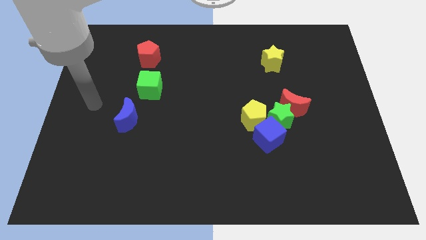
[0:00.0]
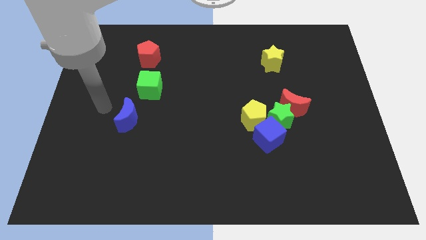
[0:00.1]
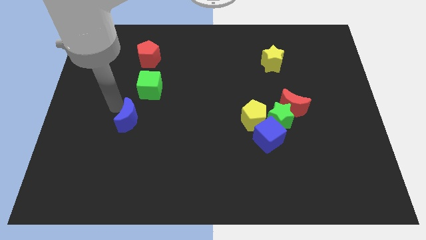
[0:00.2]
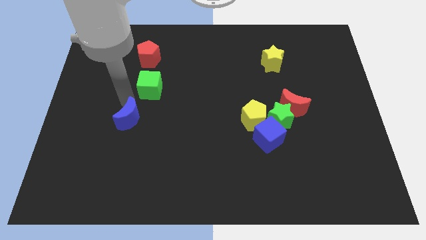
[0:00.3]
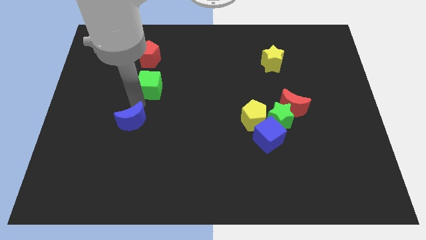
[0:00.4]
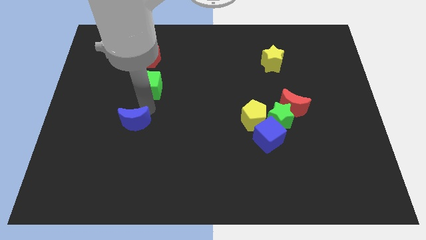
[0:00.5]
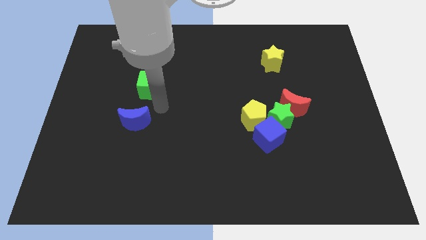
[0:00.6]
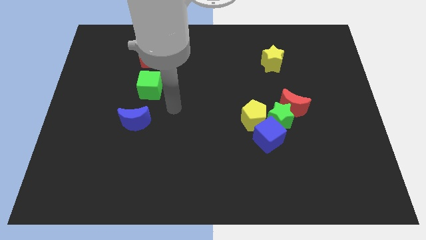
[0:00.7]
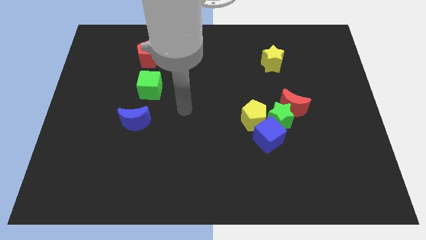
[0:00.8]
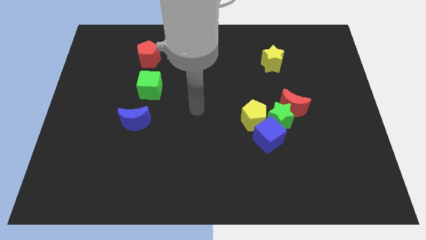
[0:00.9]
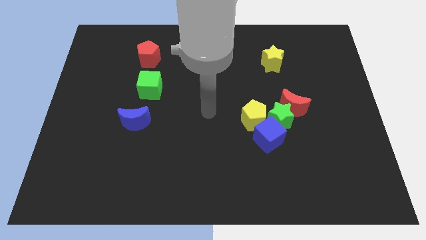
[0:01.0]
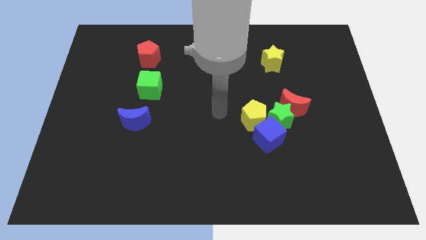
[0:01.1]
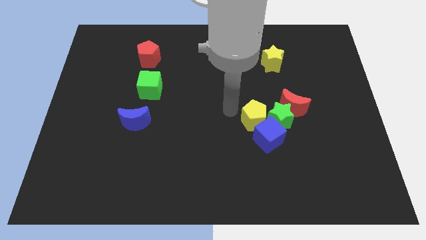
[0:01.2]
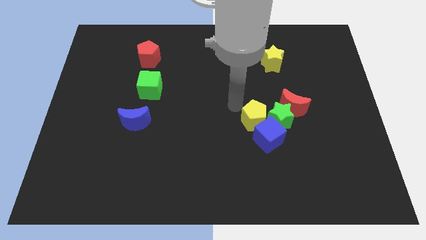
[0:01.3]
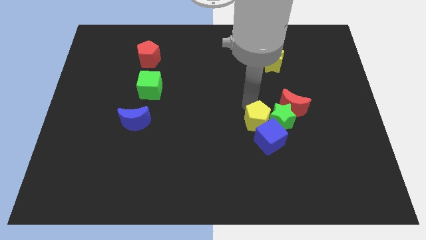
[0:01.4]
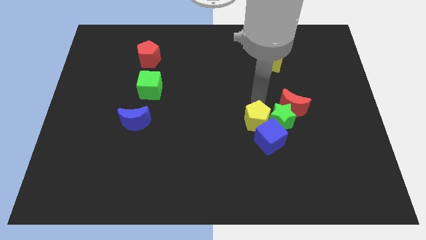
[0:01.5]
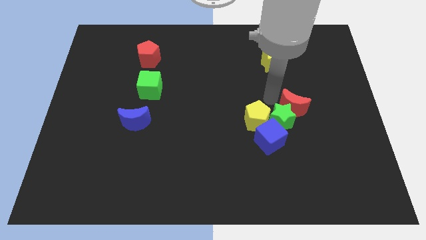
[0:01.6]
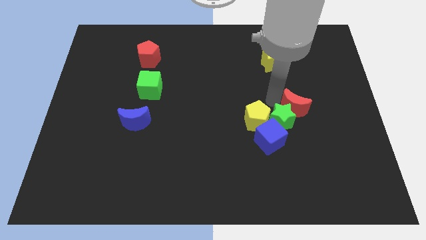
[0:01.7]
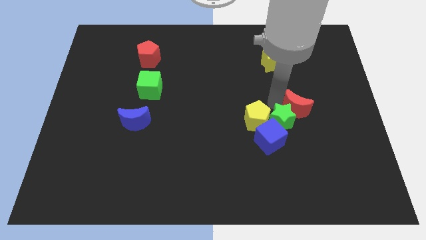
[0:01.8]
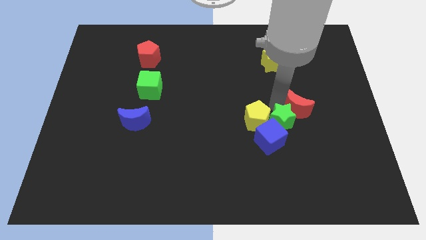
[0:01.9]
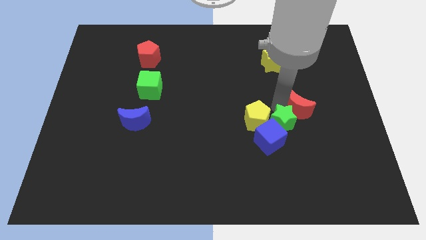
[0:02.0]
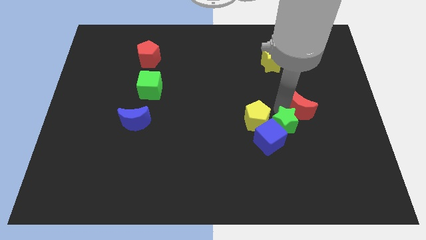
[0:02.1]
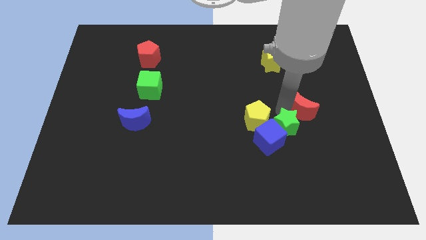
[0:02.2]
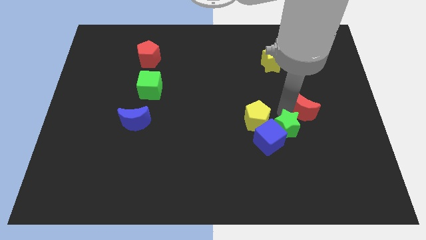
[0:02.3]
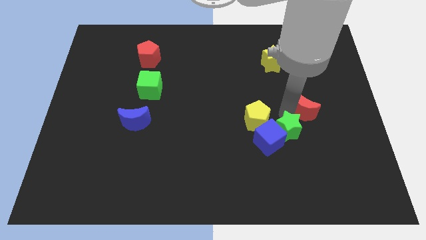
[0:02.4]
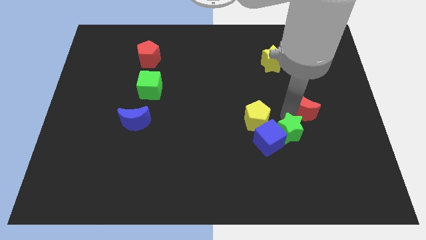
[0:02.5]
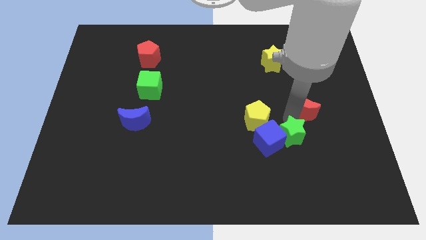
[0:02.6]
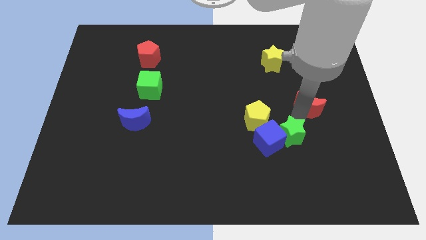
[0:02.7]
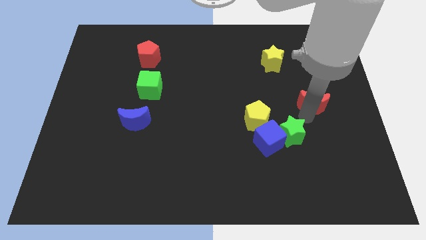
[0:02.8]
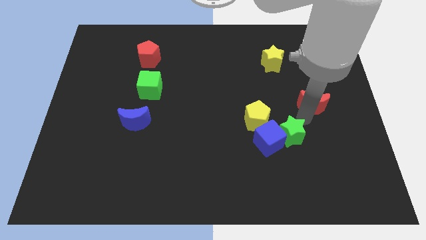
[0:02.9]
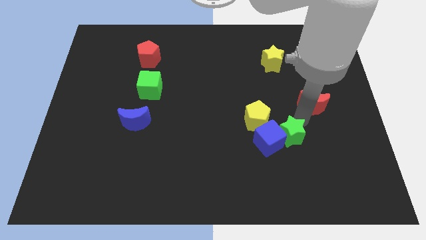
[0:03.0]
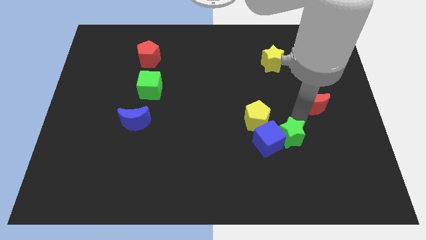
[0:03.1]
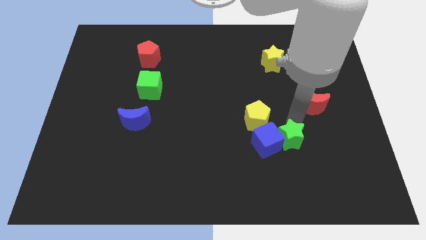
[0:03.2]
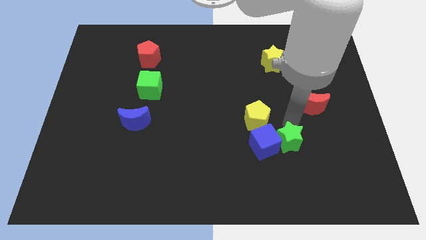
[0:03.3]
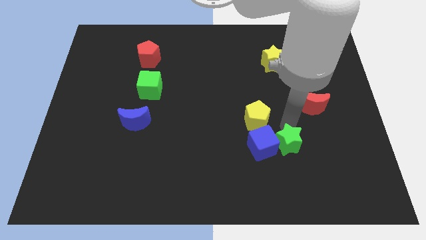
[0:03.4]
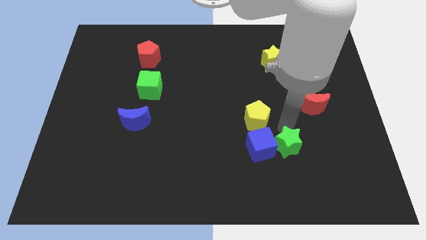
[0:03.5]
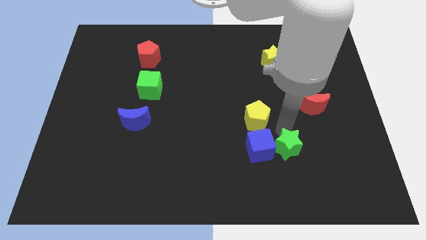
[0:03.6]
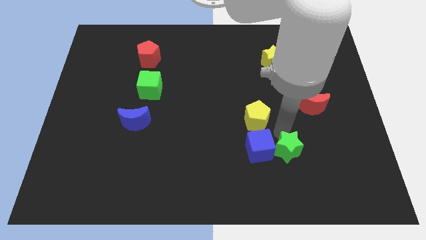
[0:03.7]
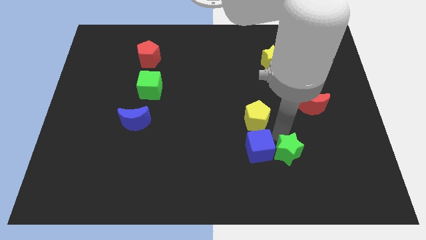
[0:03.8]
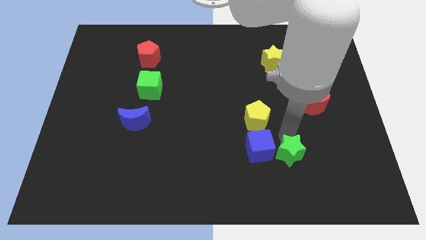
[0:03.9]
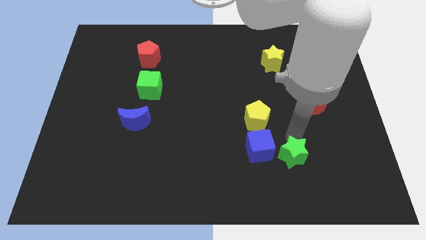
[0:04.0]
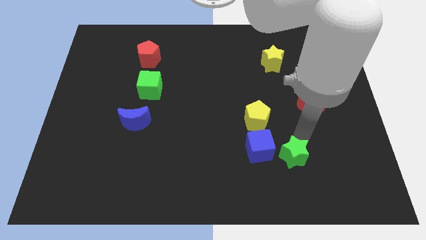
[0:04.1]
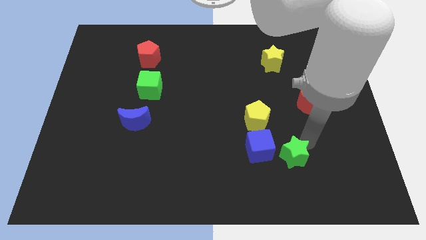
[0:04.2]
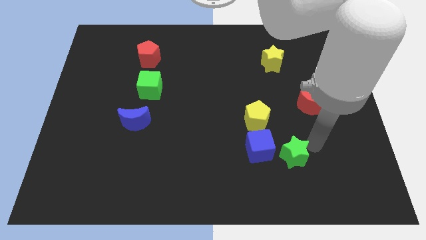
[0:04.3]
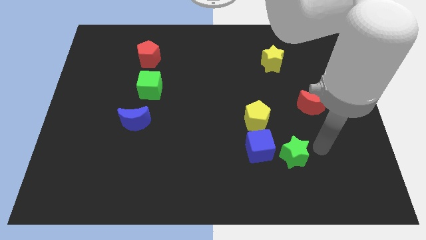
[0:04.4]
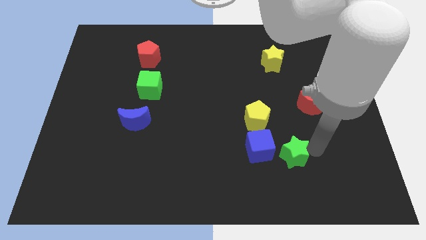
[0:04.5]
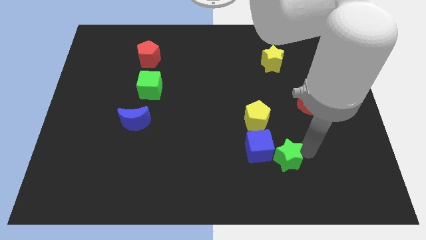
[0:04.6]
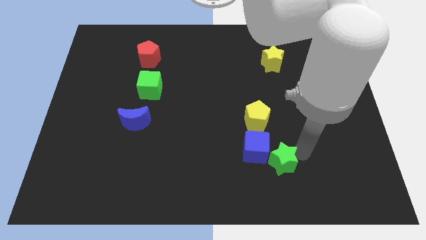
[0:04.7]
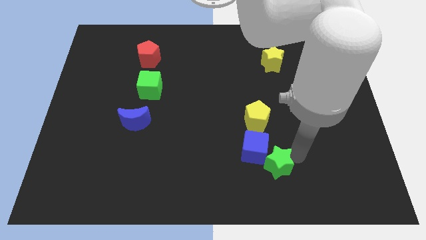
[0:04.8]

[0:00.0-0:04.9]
slide the green star downwards and left diagonally somewhat

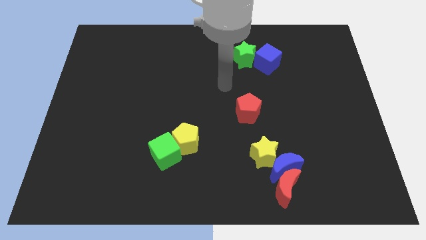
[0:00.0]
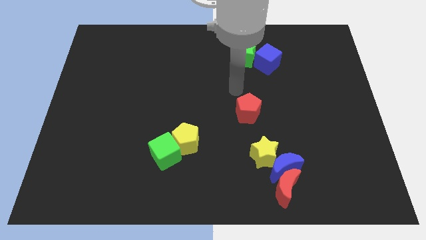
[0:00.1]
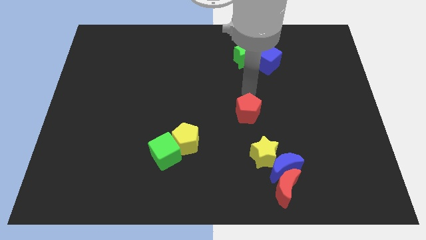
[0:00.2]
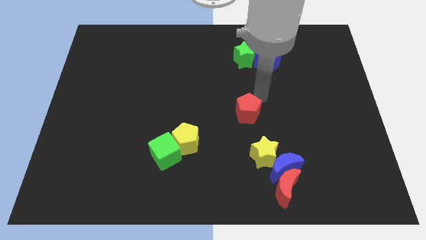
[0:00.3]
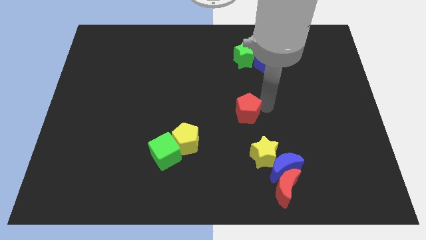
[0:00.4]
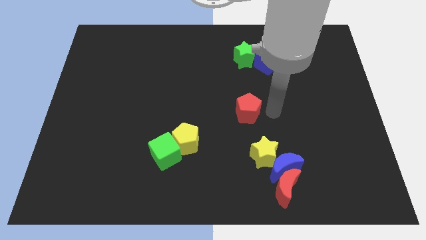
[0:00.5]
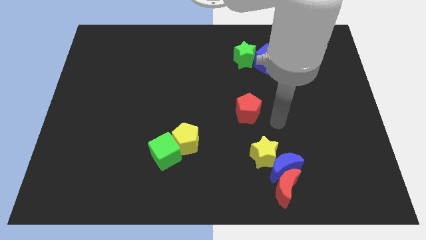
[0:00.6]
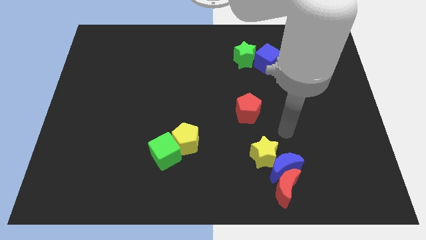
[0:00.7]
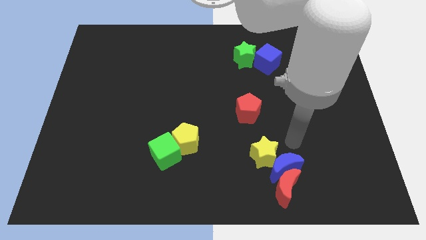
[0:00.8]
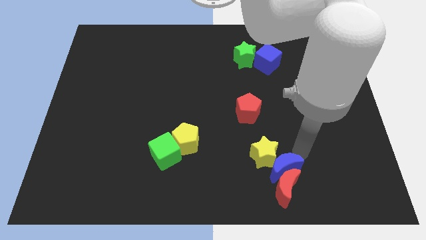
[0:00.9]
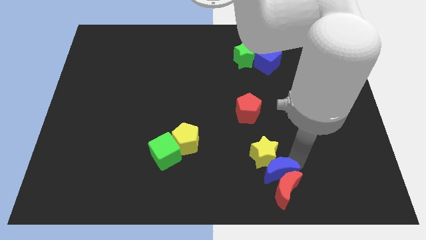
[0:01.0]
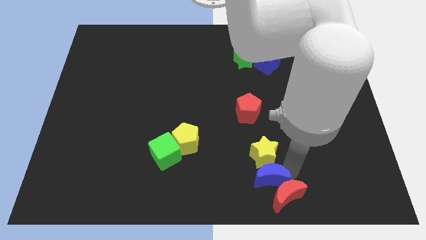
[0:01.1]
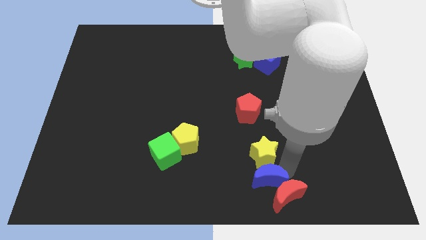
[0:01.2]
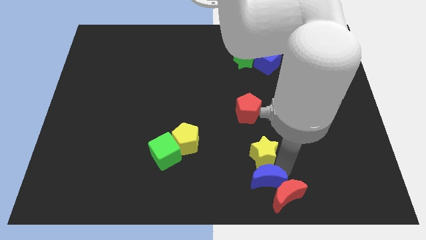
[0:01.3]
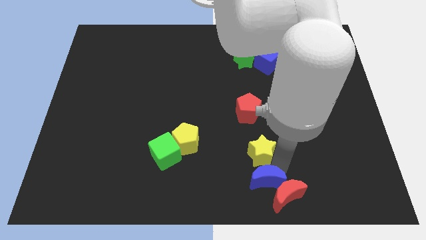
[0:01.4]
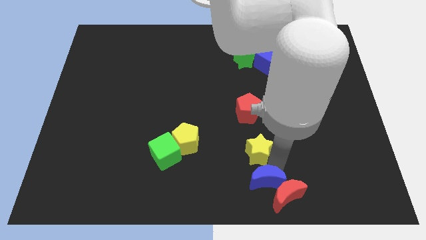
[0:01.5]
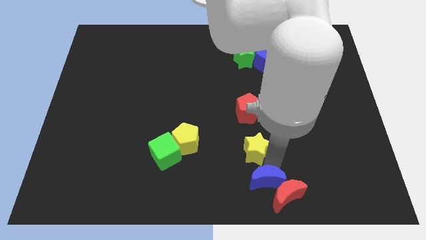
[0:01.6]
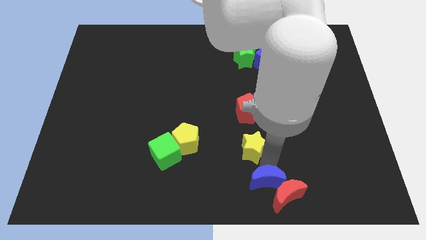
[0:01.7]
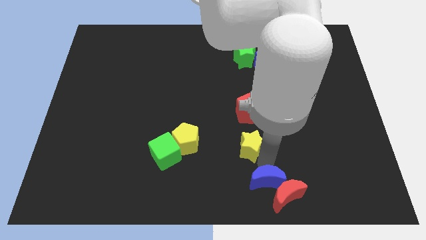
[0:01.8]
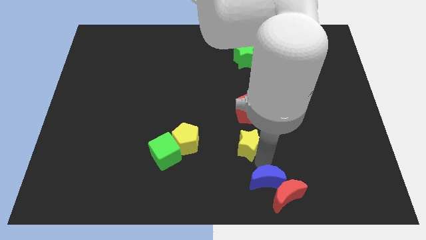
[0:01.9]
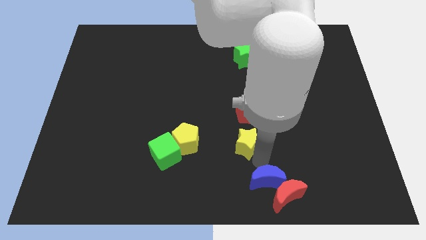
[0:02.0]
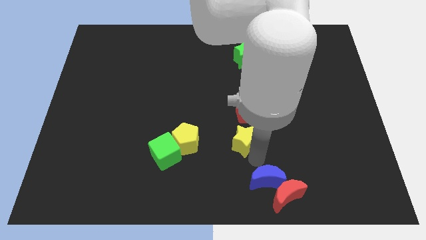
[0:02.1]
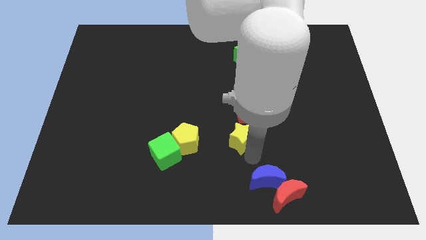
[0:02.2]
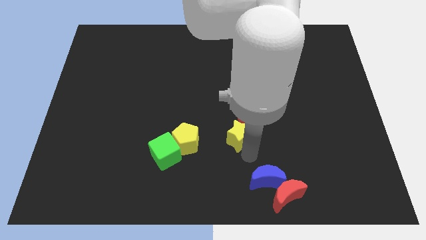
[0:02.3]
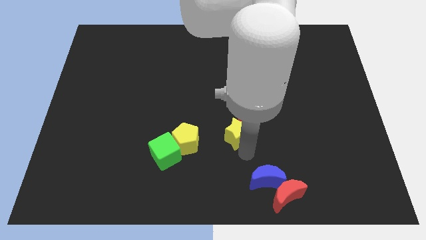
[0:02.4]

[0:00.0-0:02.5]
move the yellow star a little upwards and then to the left

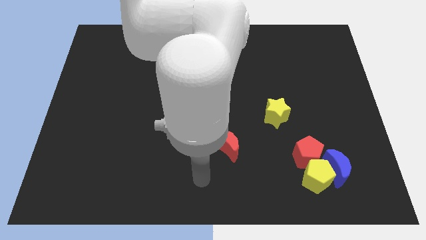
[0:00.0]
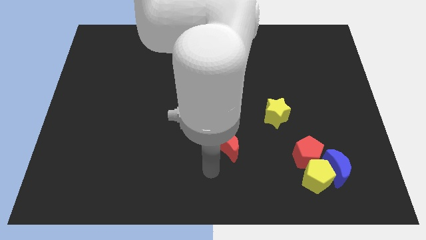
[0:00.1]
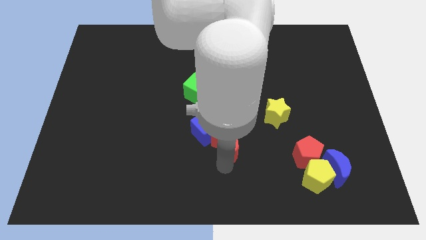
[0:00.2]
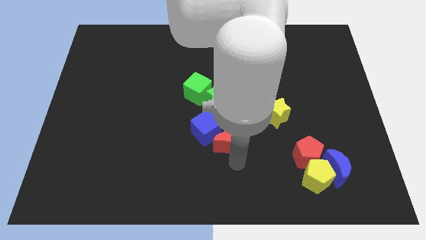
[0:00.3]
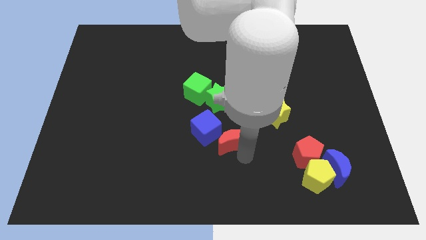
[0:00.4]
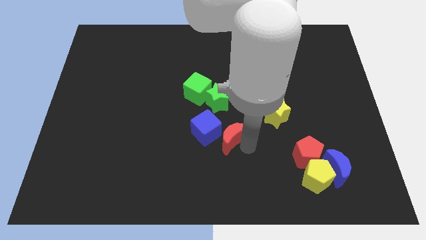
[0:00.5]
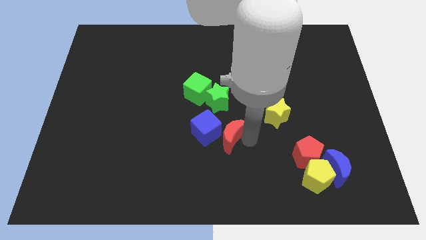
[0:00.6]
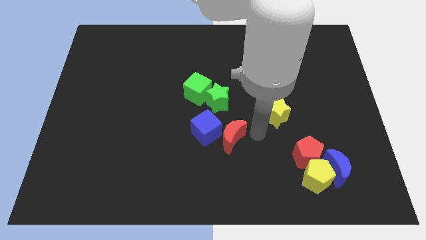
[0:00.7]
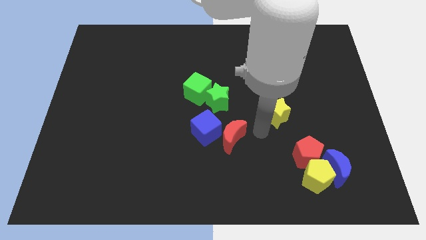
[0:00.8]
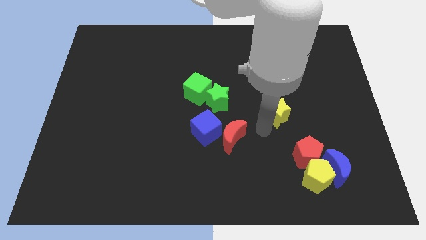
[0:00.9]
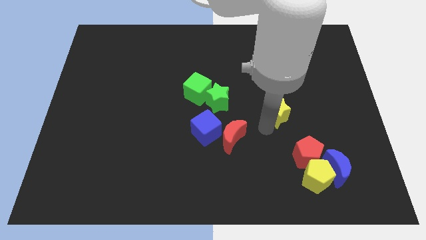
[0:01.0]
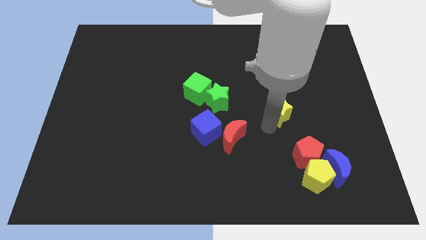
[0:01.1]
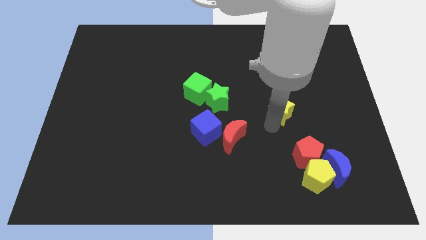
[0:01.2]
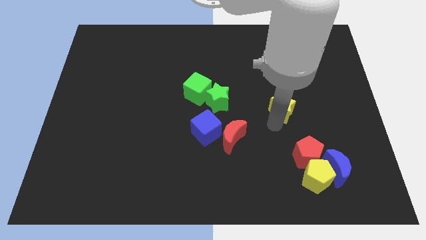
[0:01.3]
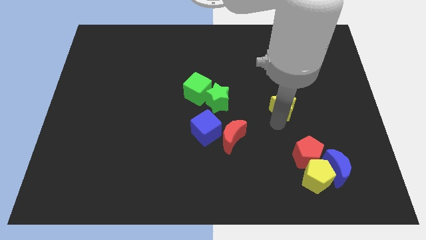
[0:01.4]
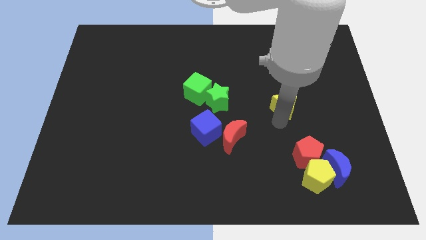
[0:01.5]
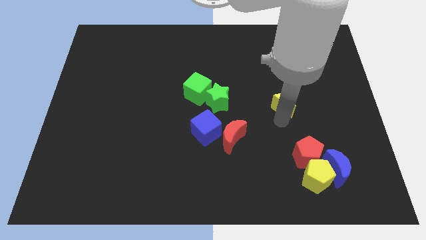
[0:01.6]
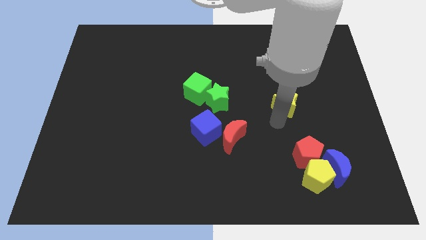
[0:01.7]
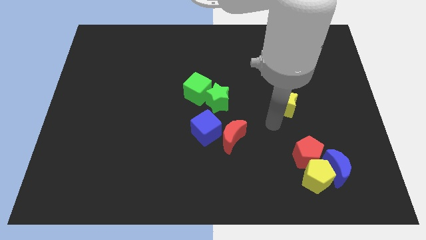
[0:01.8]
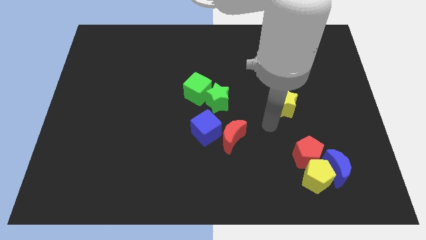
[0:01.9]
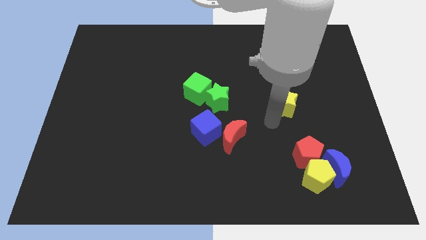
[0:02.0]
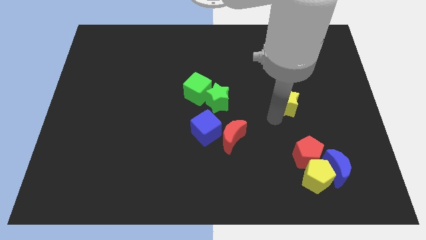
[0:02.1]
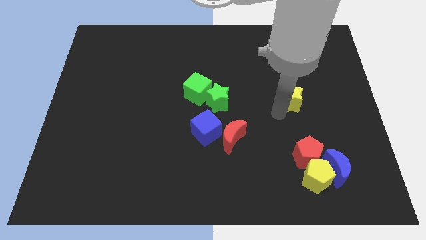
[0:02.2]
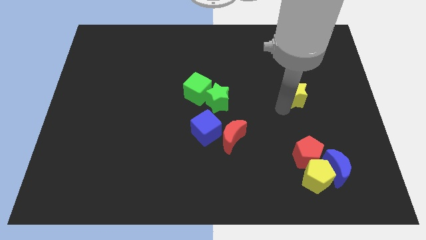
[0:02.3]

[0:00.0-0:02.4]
slide the yellow star slightly upwards and right
